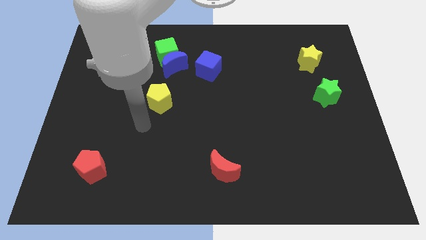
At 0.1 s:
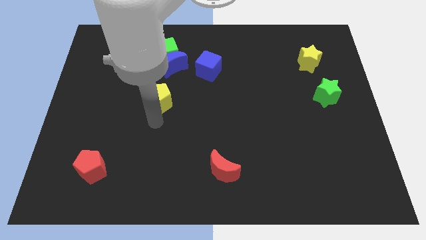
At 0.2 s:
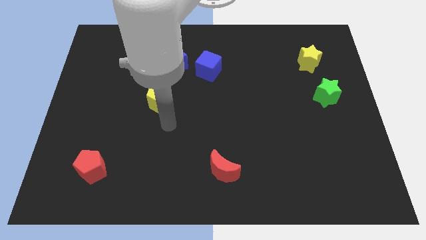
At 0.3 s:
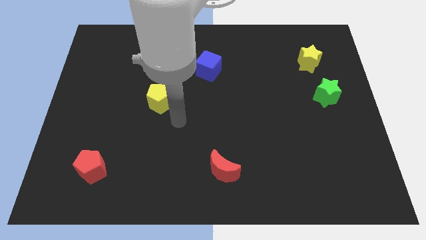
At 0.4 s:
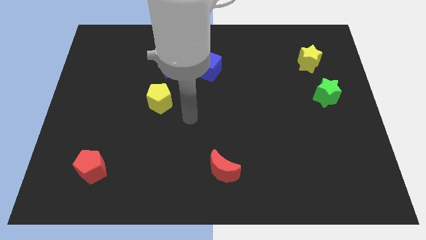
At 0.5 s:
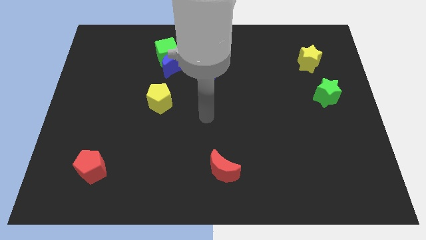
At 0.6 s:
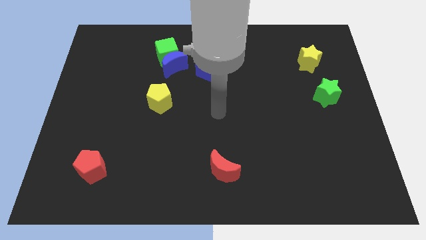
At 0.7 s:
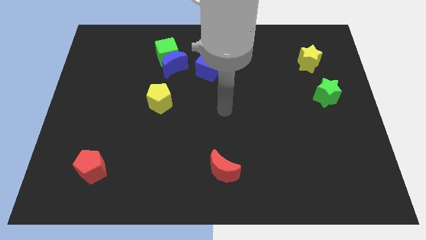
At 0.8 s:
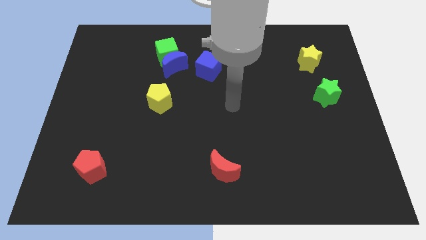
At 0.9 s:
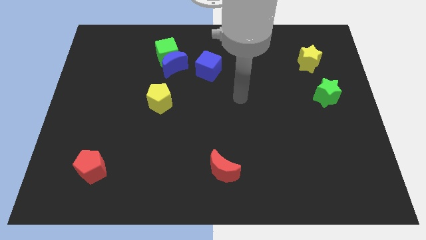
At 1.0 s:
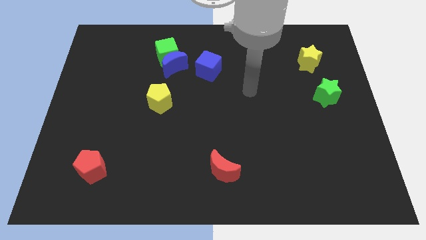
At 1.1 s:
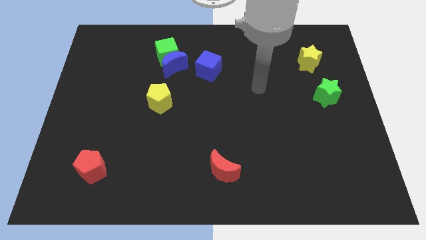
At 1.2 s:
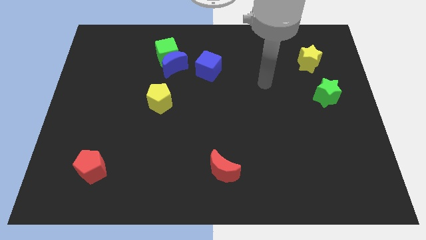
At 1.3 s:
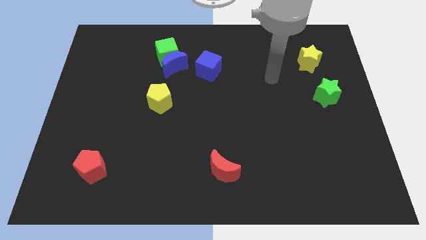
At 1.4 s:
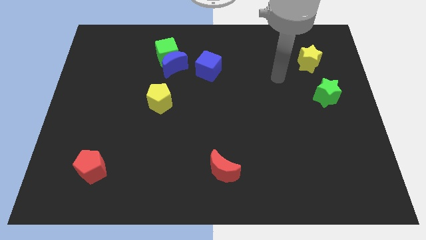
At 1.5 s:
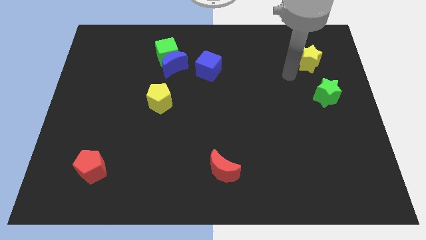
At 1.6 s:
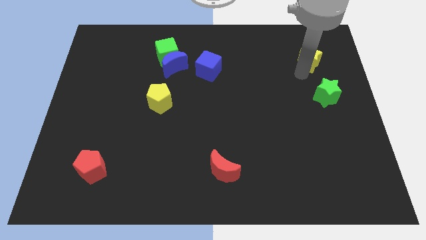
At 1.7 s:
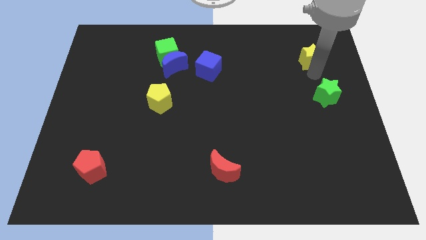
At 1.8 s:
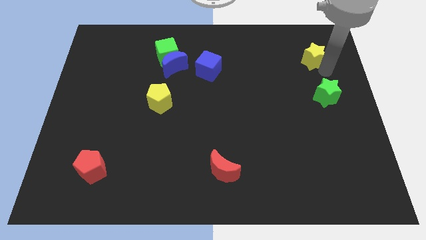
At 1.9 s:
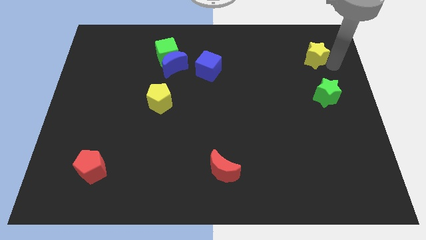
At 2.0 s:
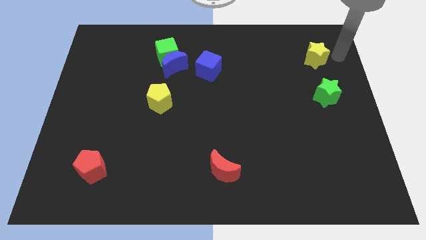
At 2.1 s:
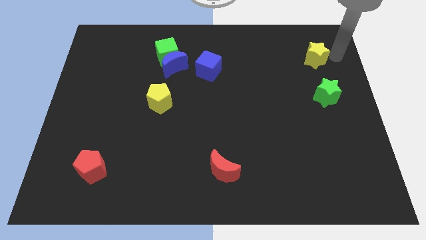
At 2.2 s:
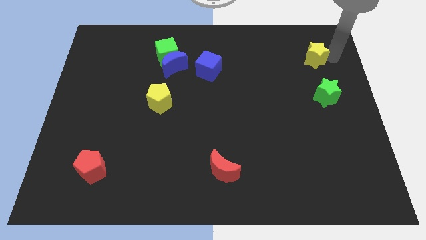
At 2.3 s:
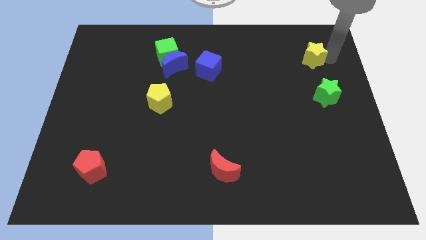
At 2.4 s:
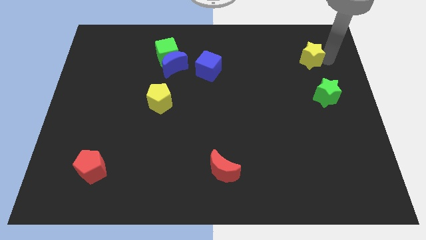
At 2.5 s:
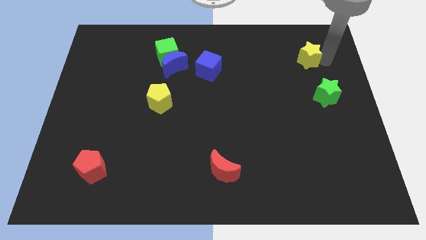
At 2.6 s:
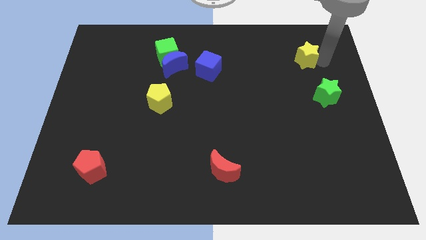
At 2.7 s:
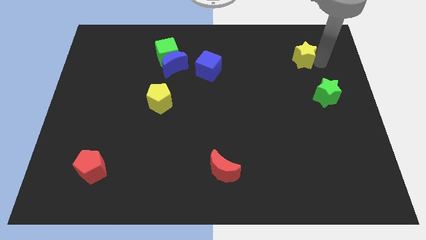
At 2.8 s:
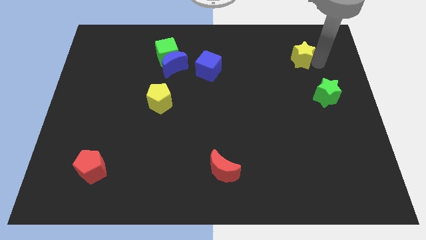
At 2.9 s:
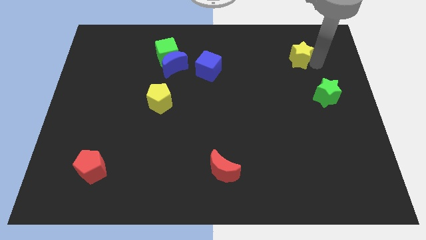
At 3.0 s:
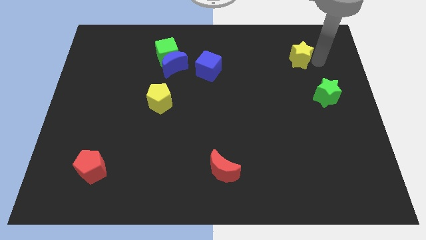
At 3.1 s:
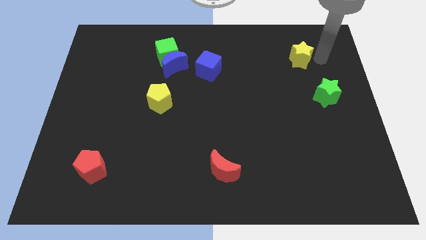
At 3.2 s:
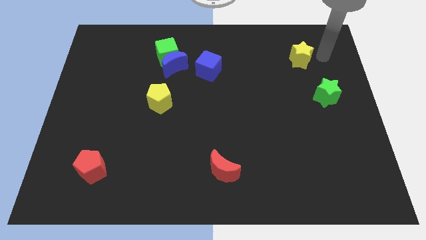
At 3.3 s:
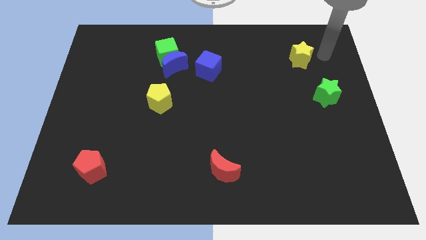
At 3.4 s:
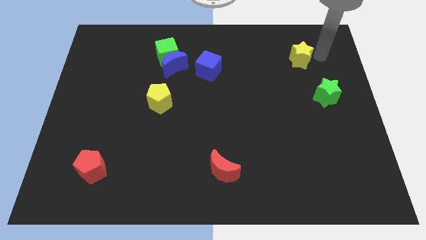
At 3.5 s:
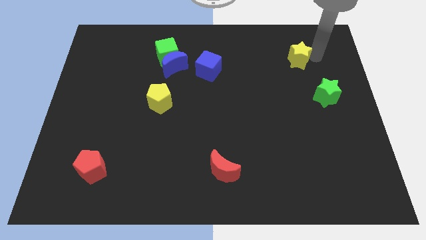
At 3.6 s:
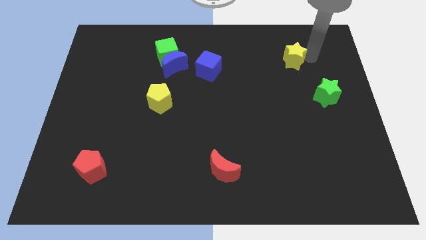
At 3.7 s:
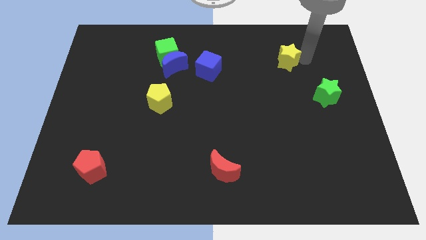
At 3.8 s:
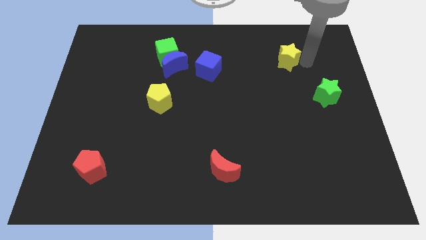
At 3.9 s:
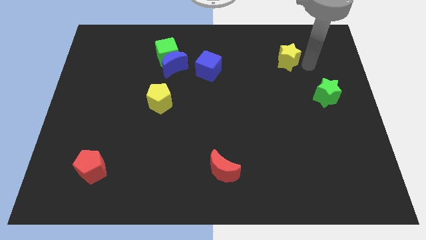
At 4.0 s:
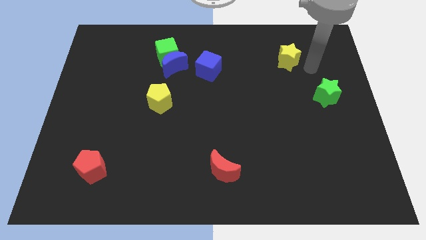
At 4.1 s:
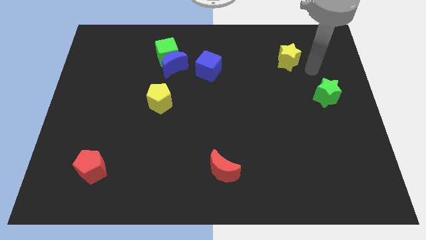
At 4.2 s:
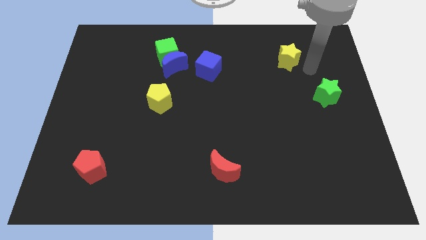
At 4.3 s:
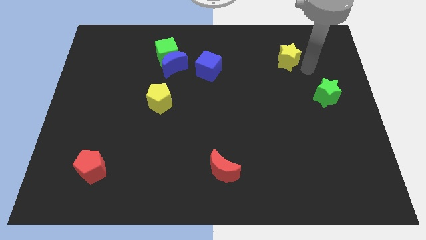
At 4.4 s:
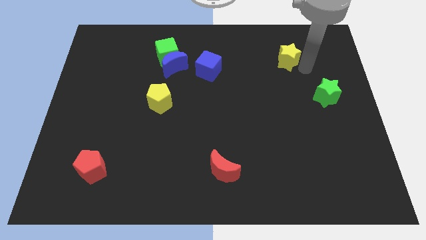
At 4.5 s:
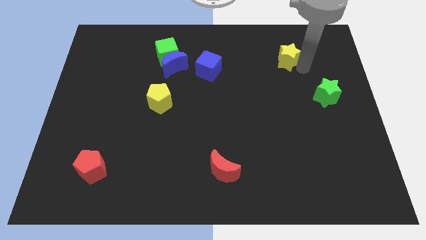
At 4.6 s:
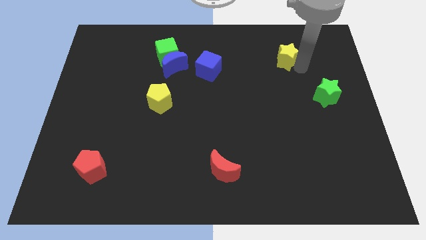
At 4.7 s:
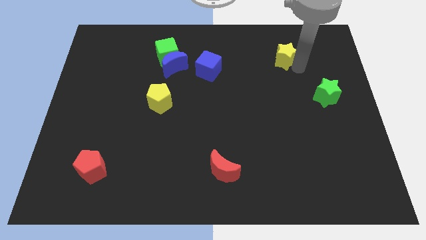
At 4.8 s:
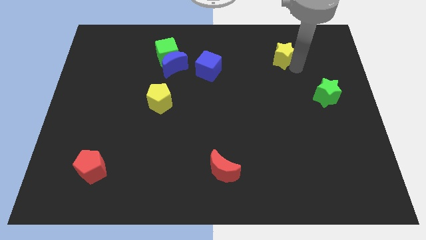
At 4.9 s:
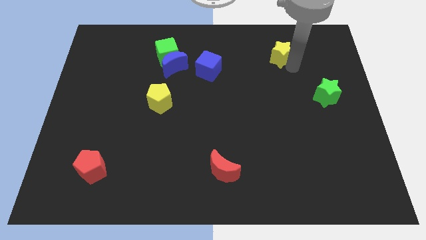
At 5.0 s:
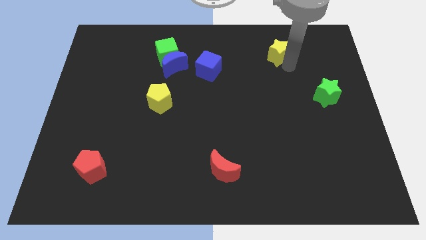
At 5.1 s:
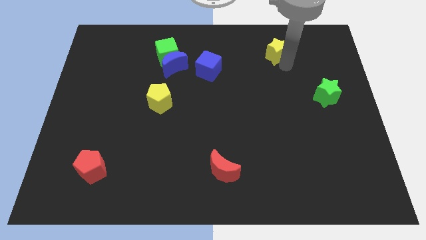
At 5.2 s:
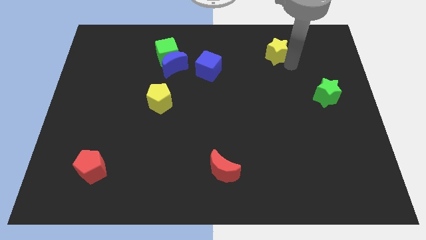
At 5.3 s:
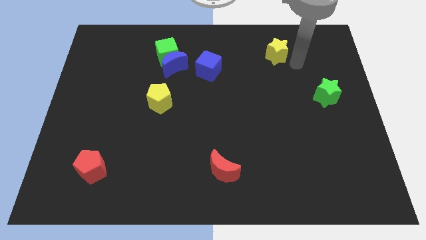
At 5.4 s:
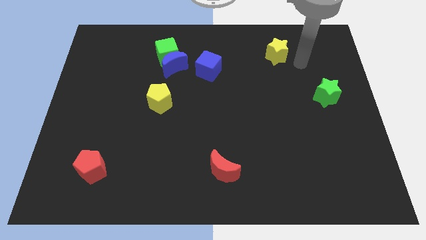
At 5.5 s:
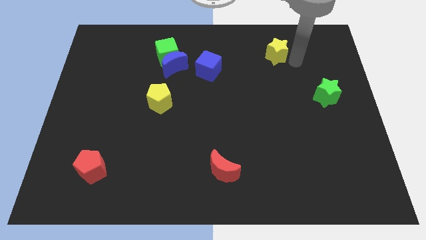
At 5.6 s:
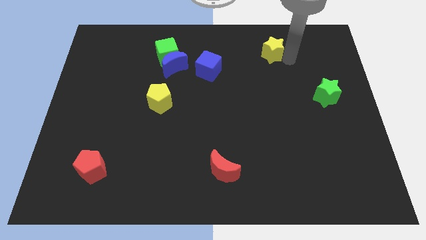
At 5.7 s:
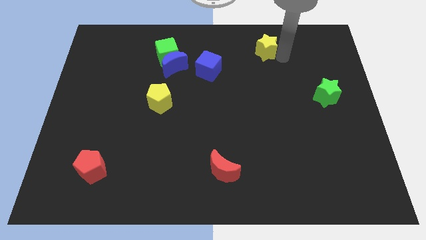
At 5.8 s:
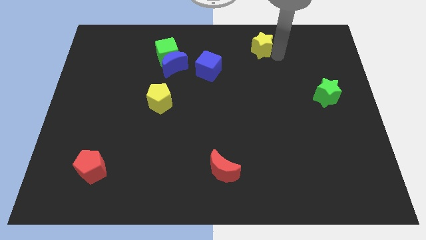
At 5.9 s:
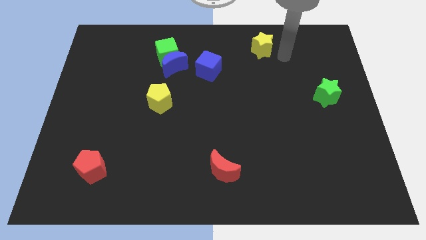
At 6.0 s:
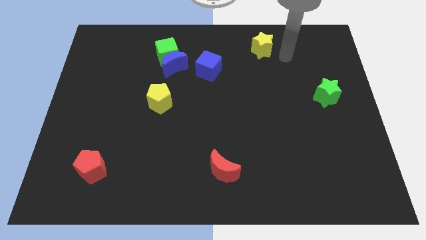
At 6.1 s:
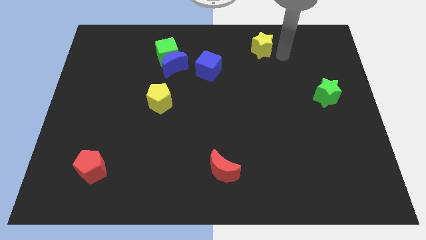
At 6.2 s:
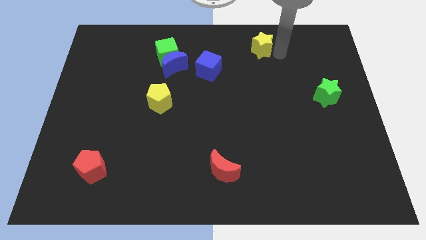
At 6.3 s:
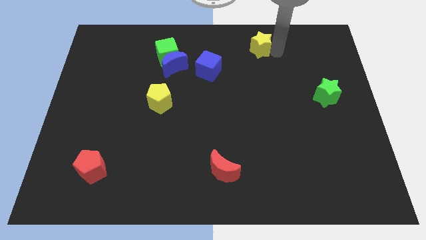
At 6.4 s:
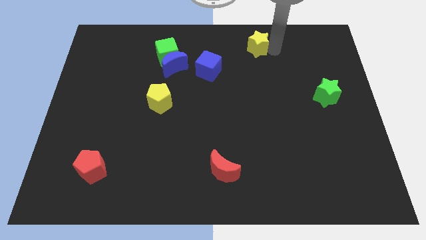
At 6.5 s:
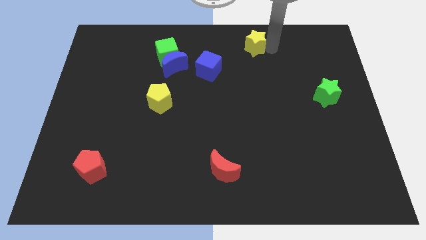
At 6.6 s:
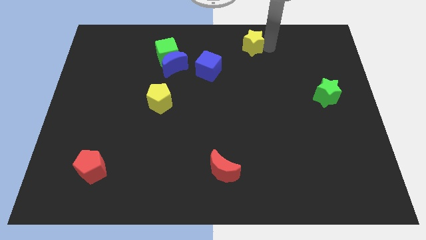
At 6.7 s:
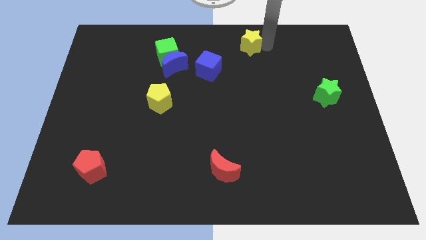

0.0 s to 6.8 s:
push the yellow star to the top
